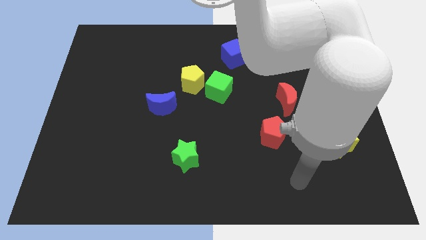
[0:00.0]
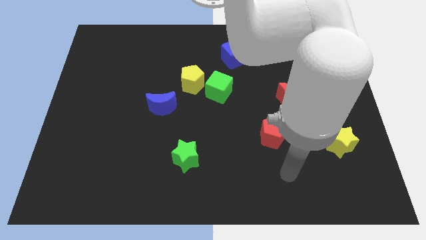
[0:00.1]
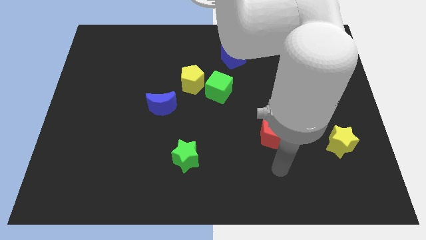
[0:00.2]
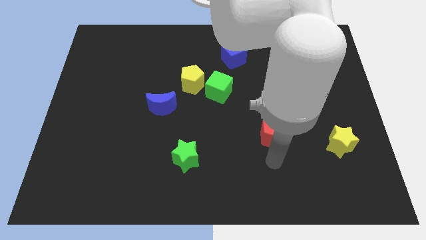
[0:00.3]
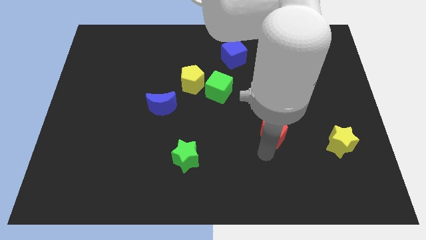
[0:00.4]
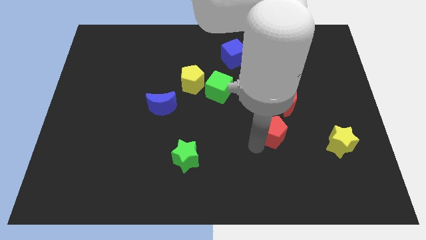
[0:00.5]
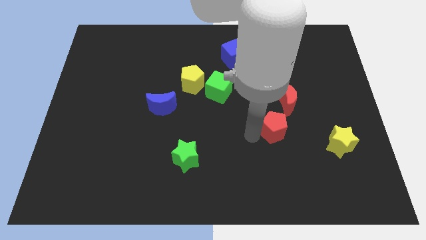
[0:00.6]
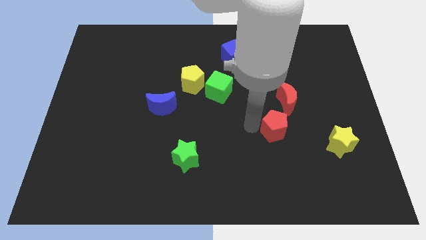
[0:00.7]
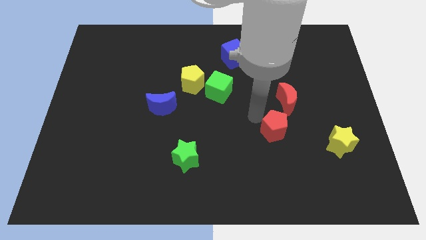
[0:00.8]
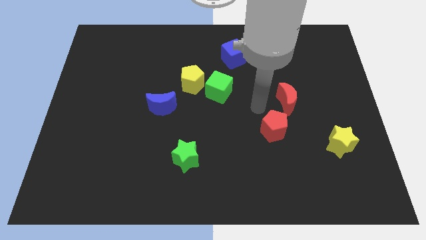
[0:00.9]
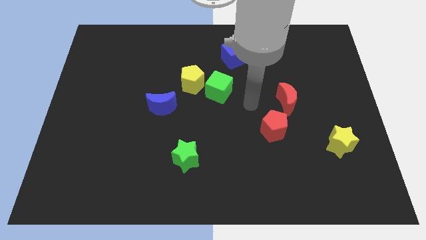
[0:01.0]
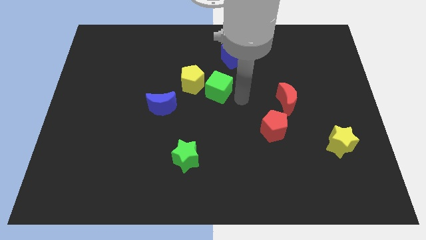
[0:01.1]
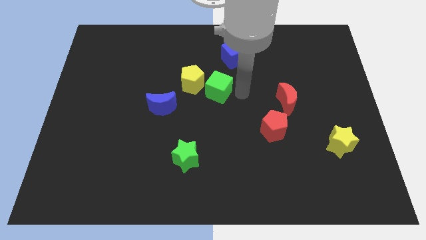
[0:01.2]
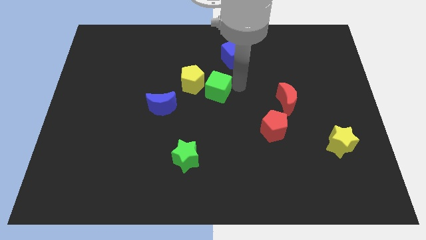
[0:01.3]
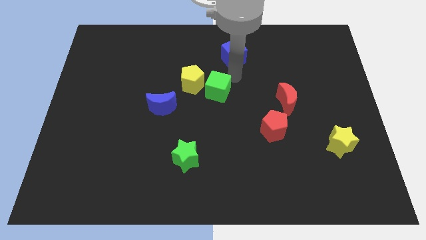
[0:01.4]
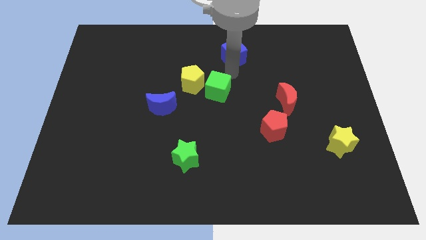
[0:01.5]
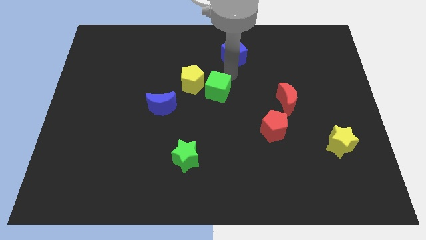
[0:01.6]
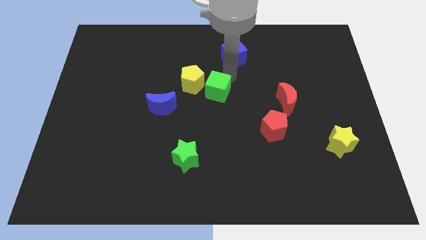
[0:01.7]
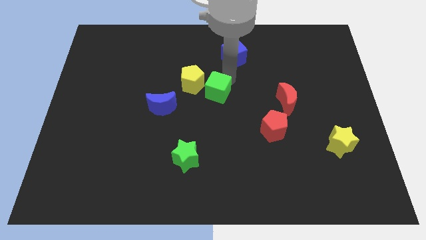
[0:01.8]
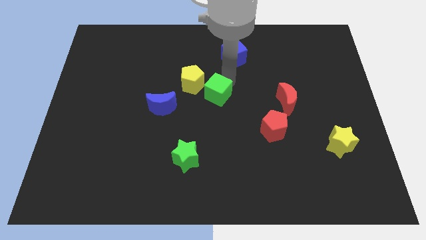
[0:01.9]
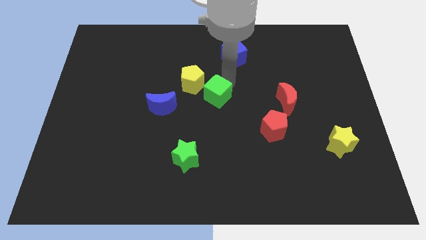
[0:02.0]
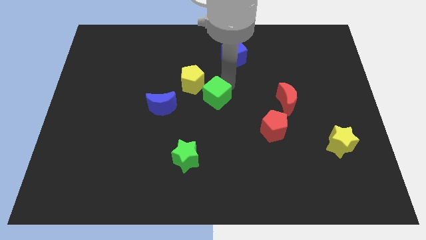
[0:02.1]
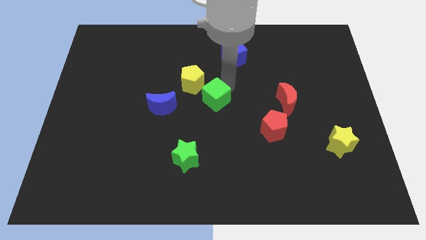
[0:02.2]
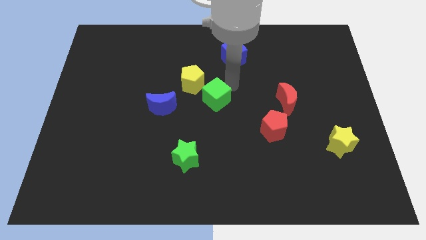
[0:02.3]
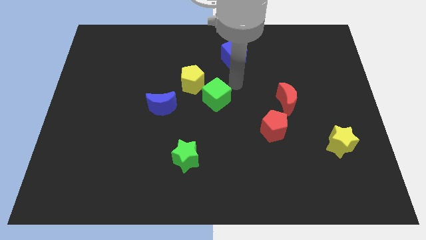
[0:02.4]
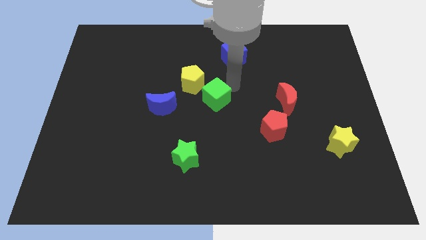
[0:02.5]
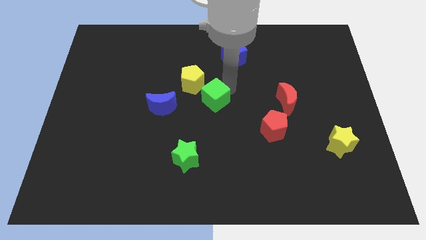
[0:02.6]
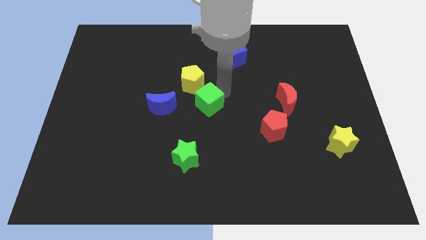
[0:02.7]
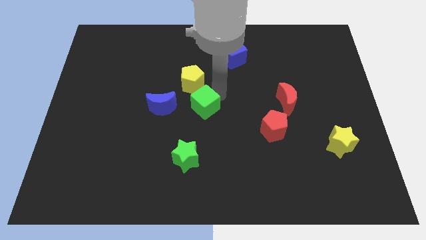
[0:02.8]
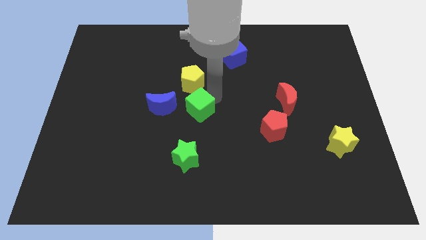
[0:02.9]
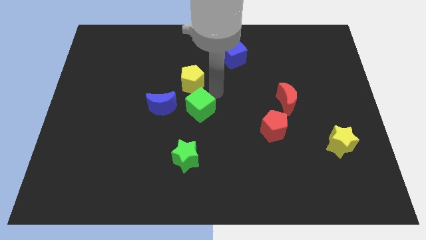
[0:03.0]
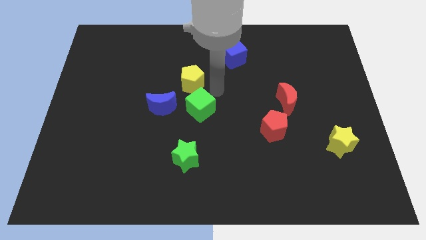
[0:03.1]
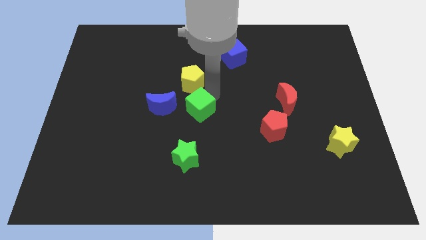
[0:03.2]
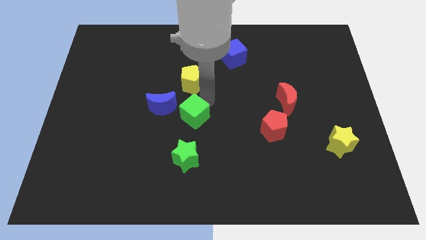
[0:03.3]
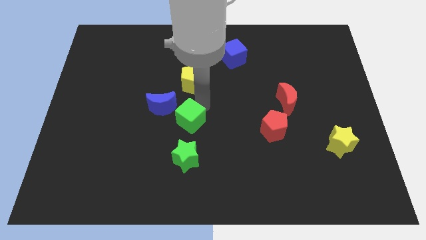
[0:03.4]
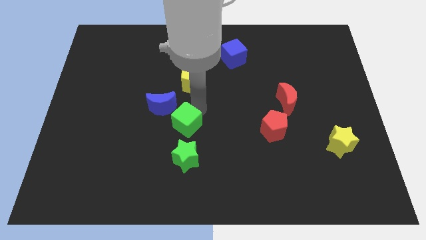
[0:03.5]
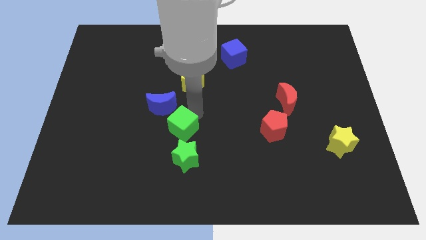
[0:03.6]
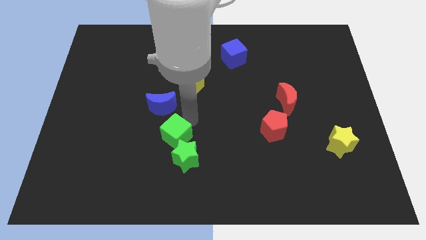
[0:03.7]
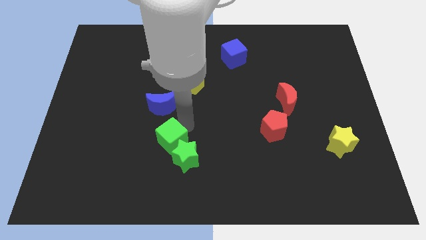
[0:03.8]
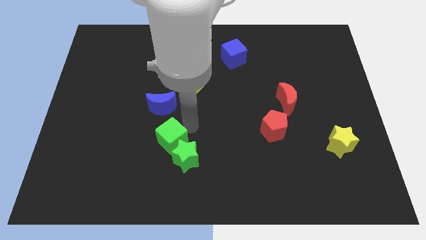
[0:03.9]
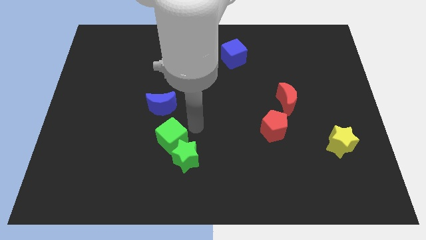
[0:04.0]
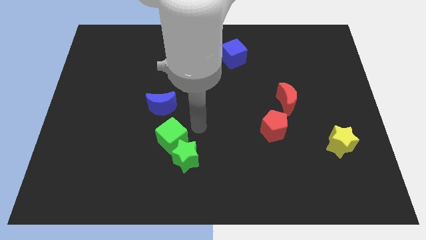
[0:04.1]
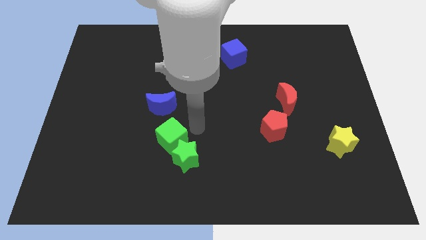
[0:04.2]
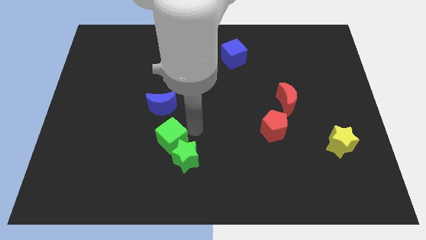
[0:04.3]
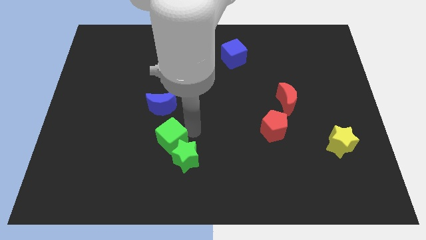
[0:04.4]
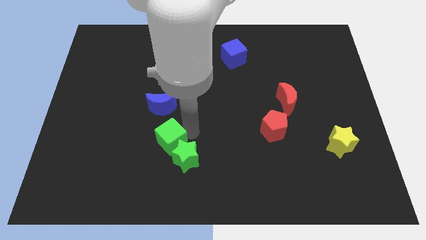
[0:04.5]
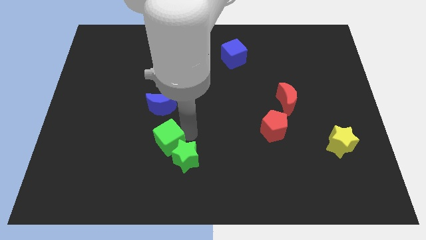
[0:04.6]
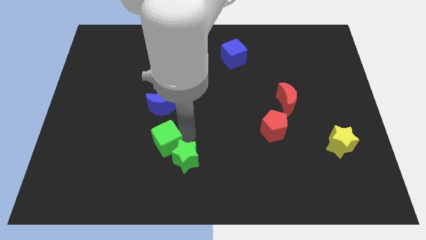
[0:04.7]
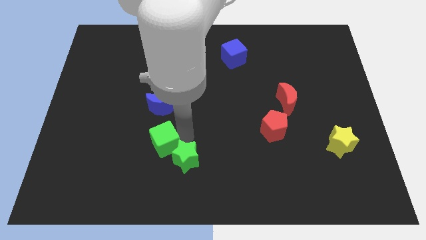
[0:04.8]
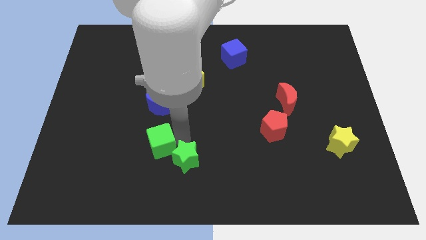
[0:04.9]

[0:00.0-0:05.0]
move the green cube down and left

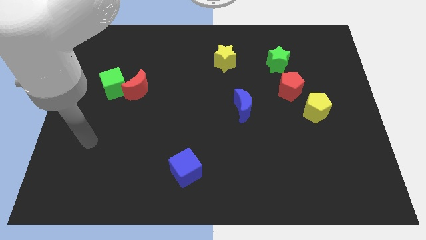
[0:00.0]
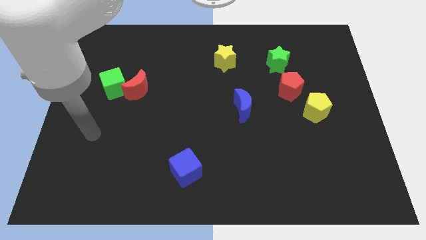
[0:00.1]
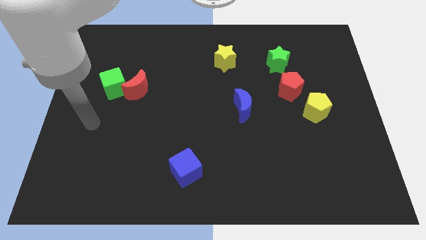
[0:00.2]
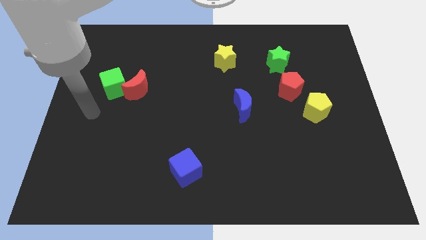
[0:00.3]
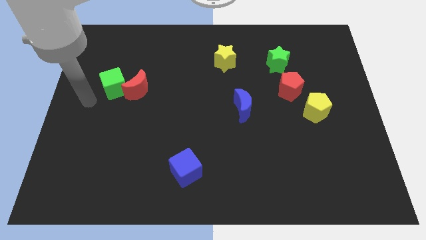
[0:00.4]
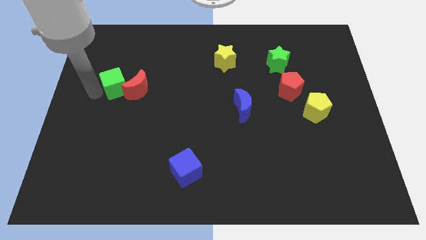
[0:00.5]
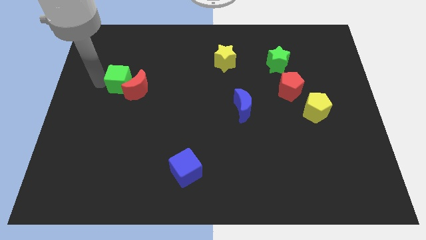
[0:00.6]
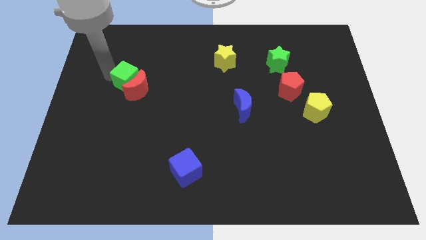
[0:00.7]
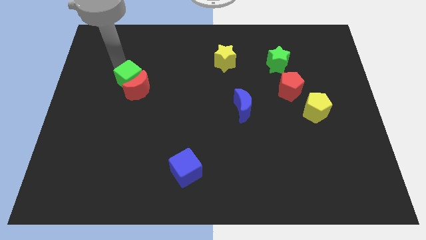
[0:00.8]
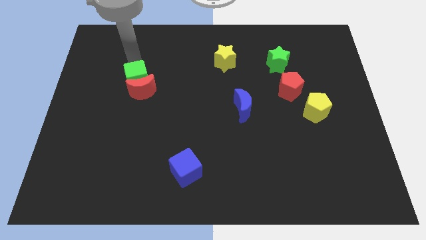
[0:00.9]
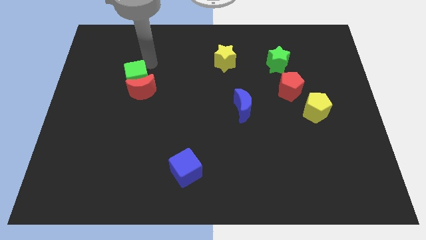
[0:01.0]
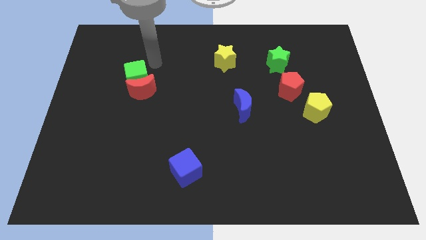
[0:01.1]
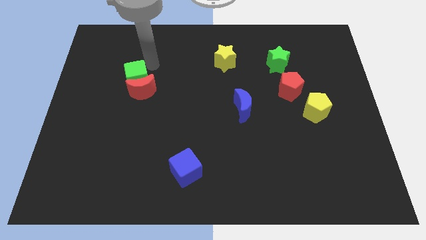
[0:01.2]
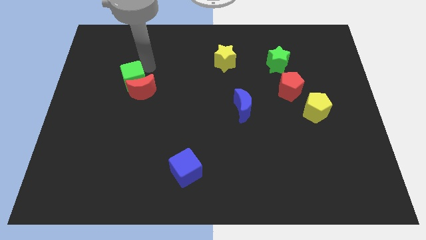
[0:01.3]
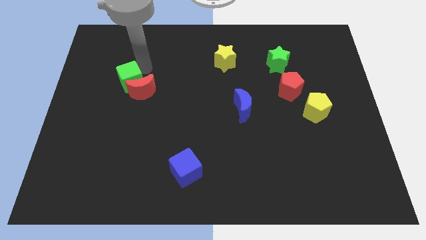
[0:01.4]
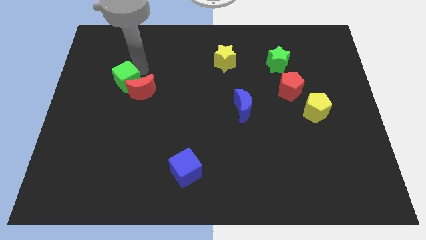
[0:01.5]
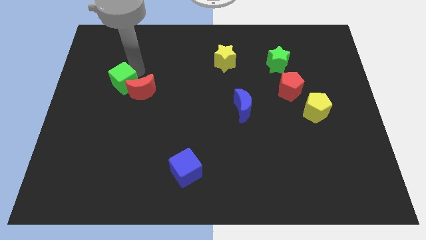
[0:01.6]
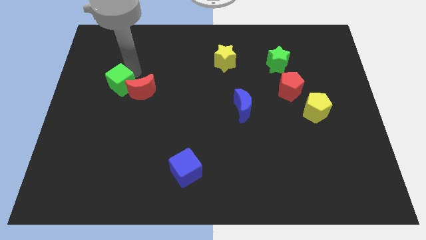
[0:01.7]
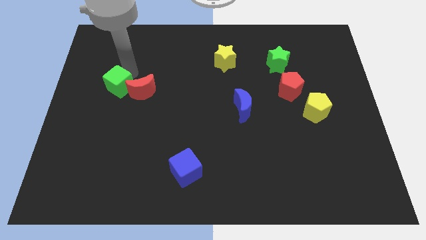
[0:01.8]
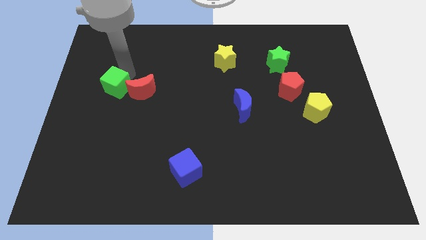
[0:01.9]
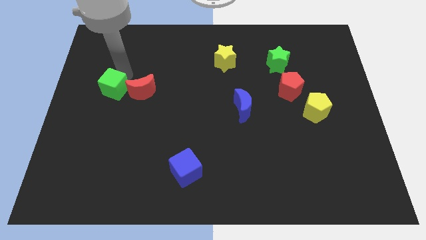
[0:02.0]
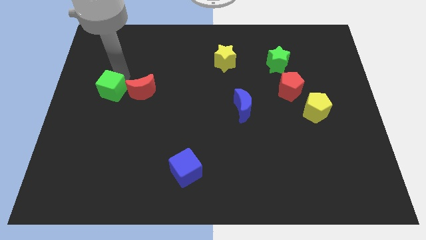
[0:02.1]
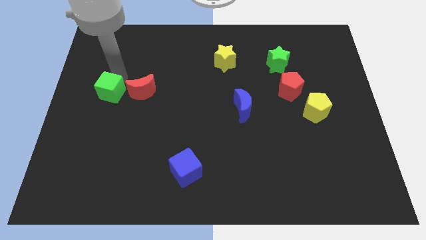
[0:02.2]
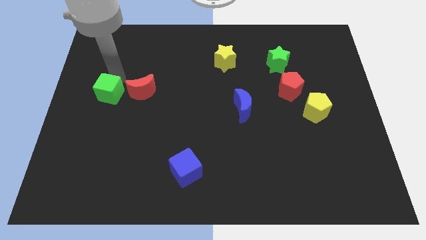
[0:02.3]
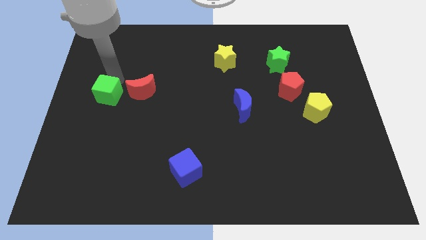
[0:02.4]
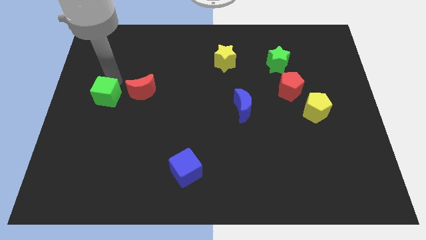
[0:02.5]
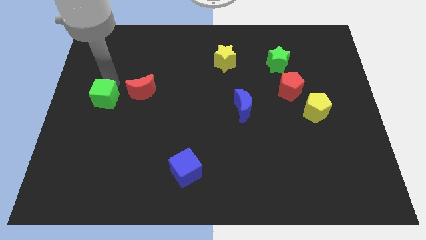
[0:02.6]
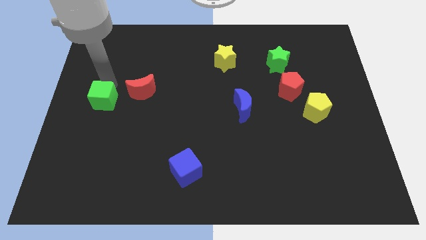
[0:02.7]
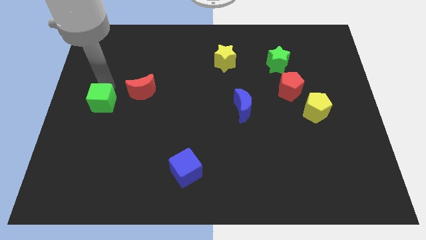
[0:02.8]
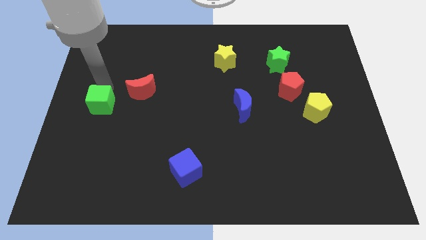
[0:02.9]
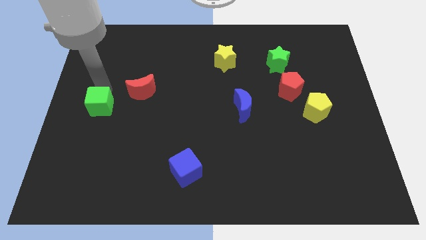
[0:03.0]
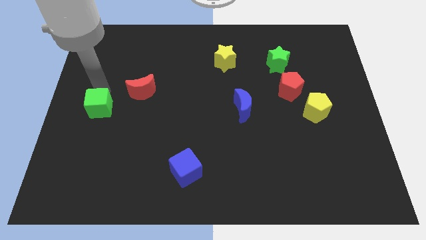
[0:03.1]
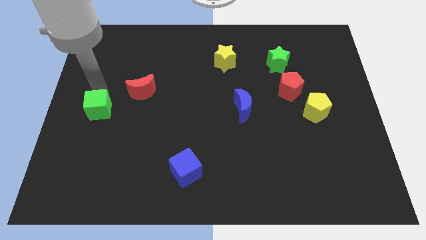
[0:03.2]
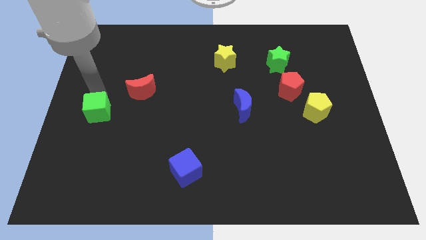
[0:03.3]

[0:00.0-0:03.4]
slightly move the green cube downwards
